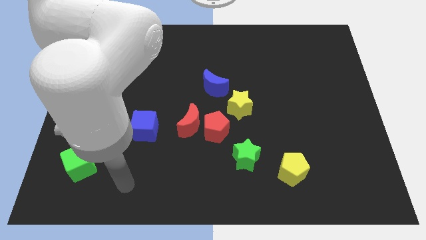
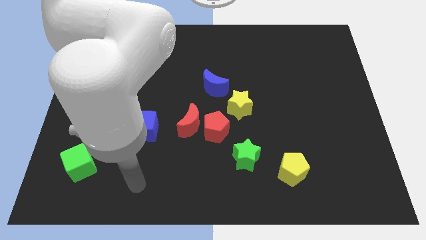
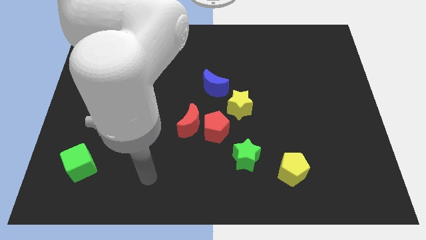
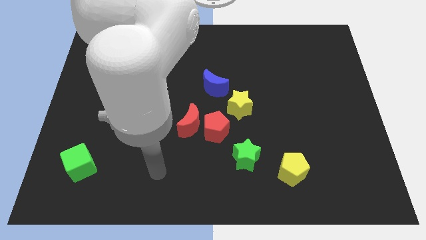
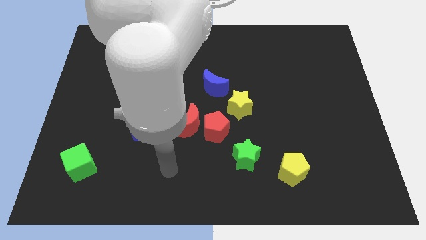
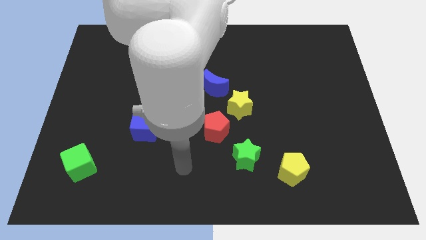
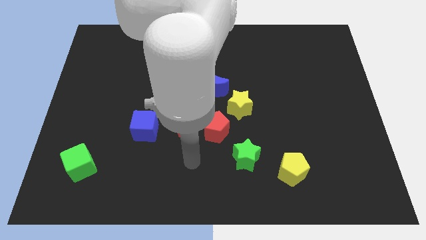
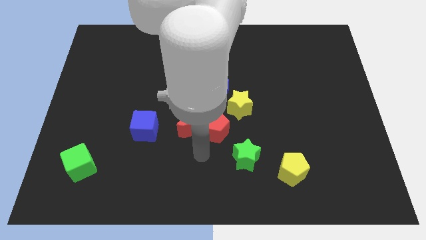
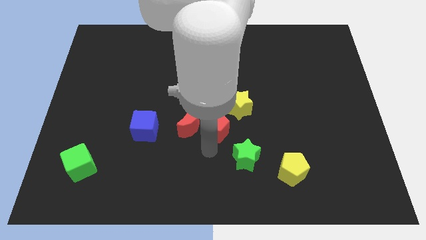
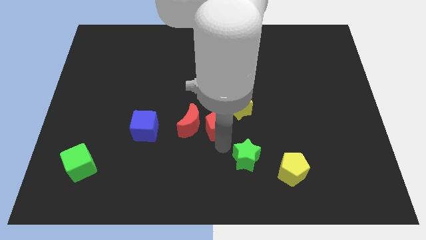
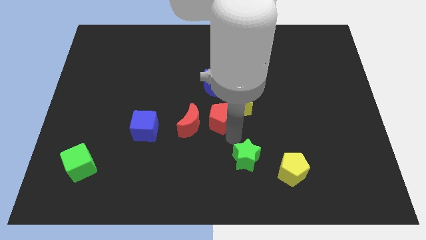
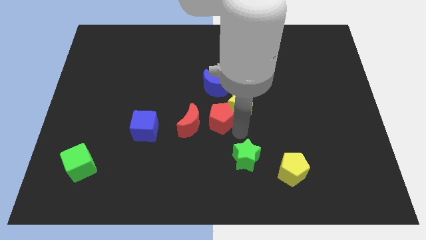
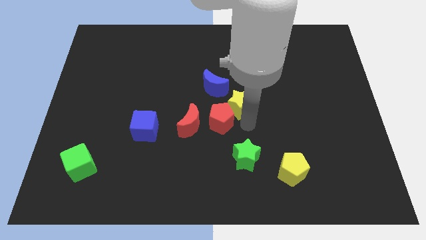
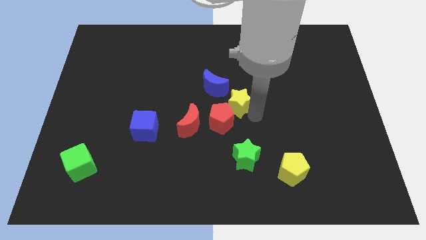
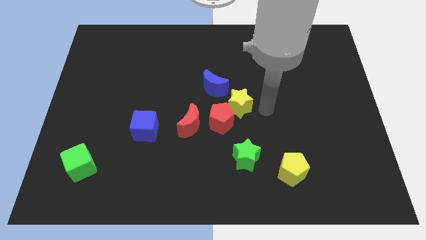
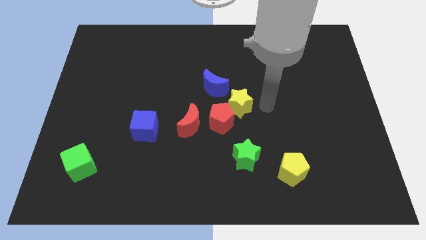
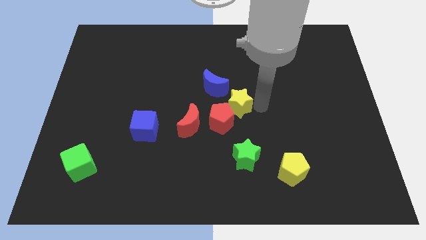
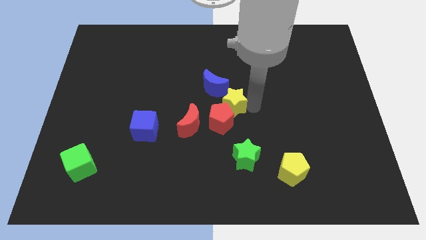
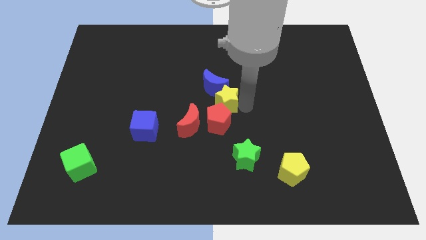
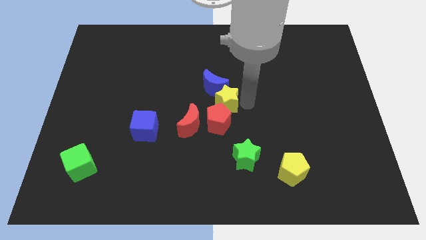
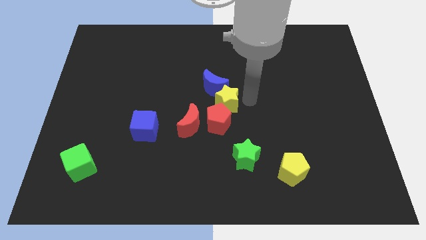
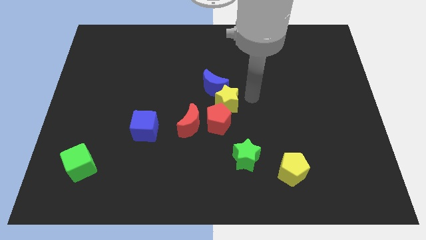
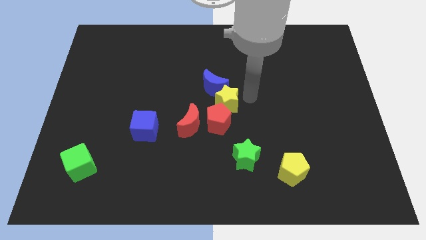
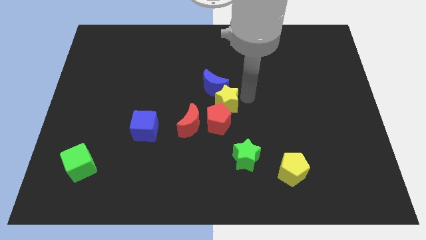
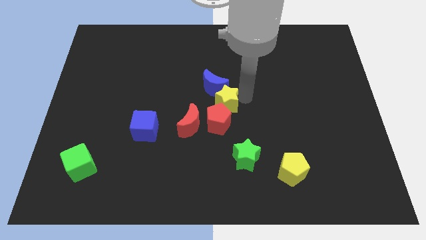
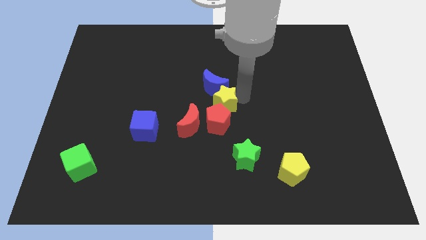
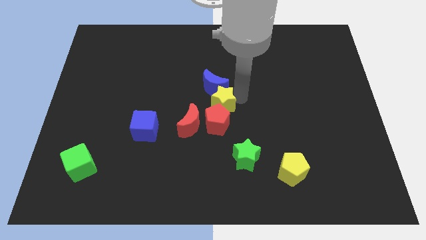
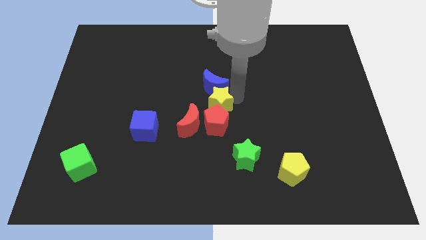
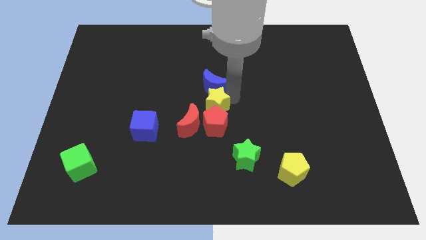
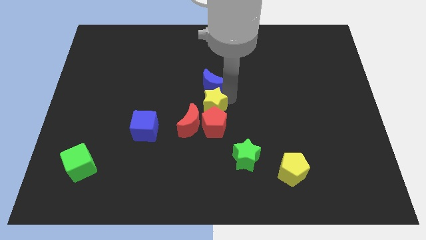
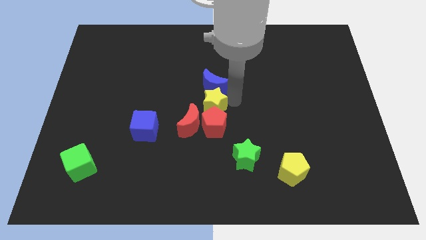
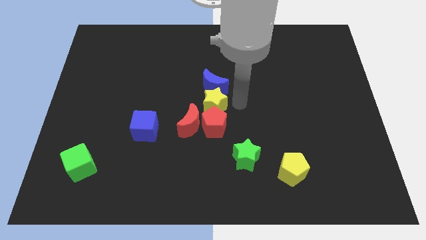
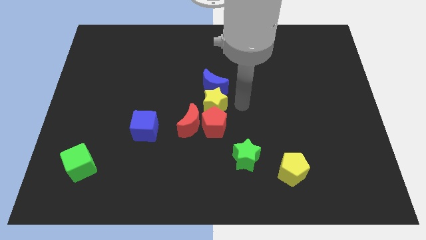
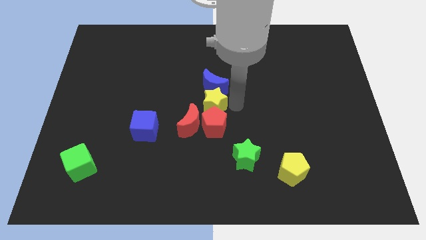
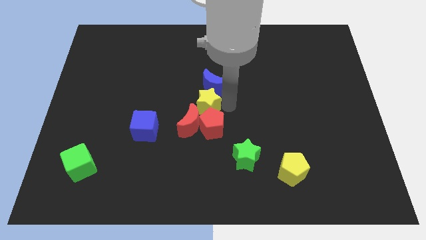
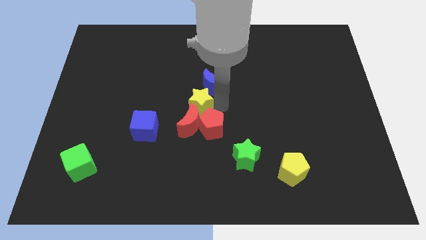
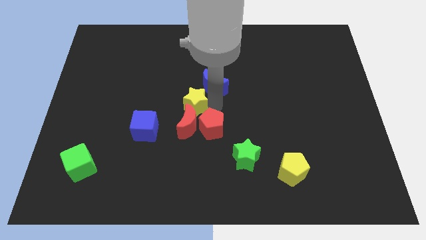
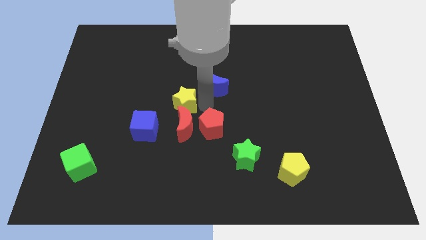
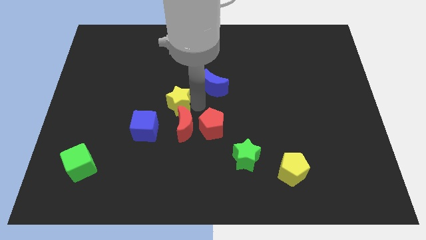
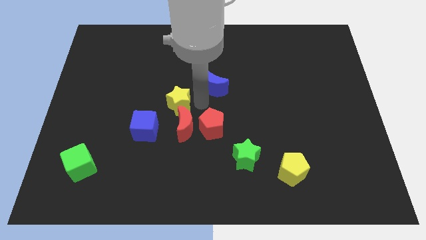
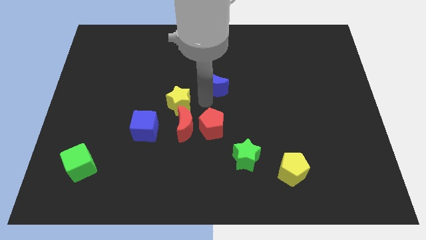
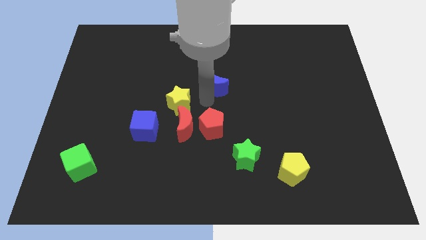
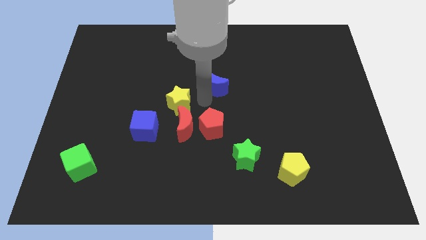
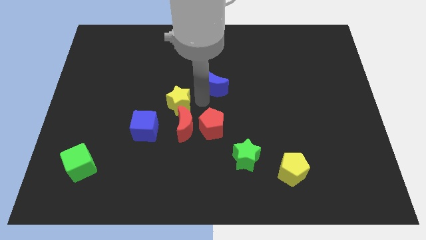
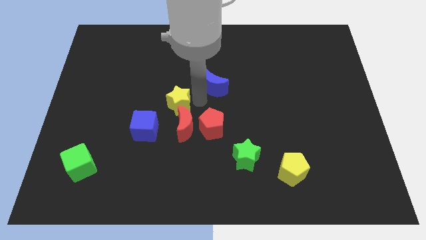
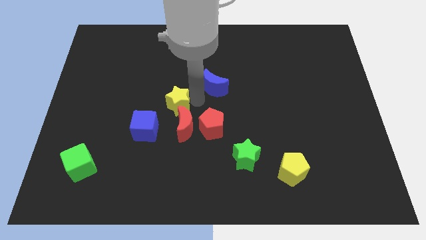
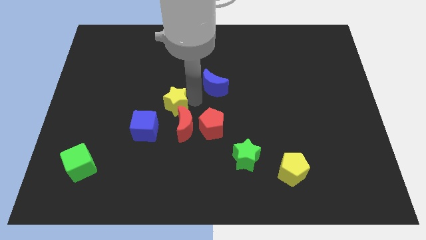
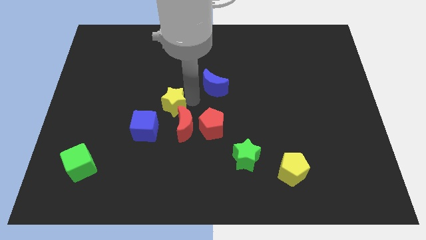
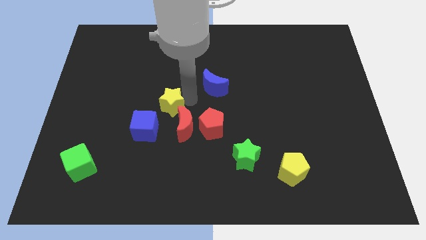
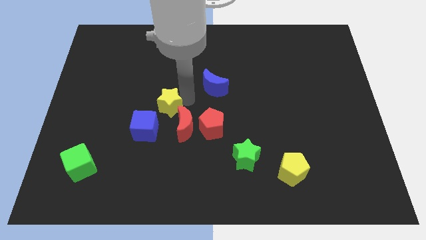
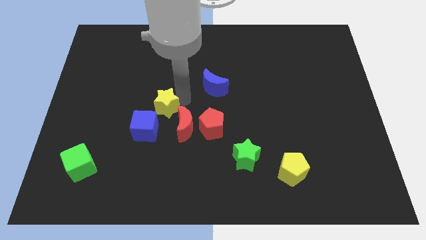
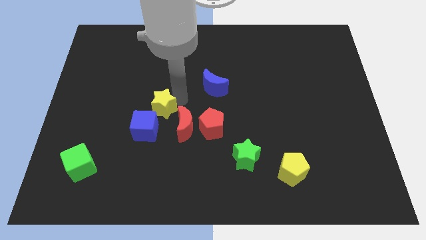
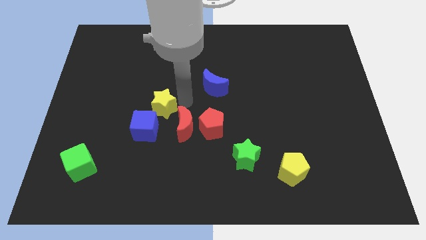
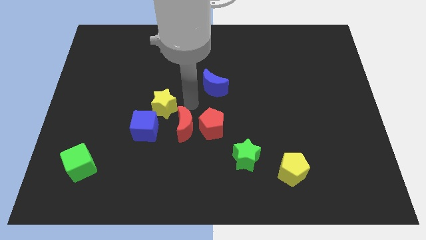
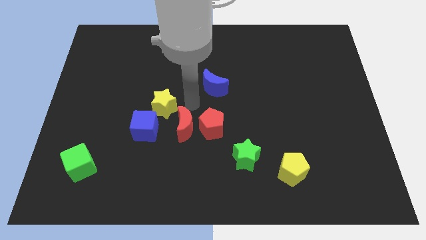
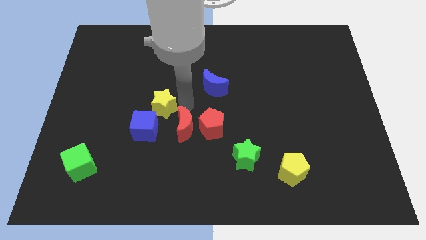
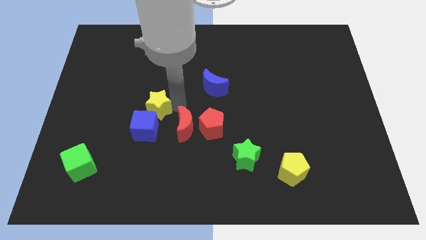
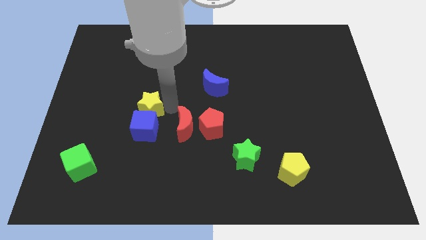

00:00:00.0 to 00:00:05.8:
push the yellow star left

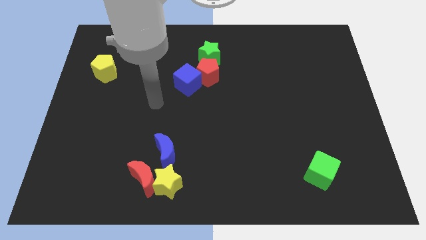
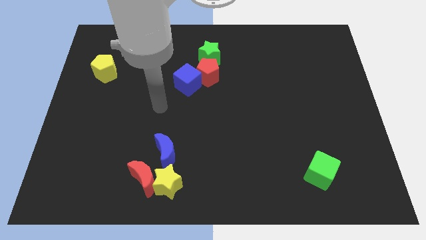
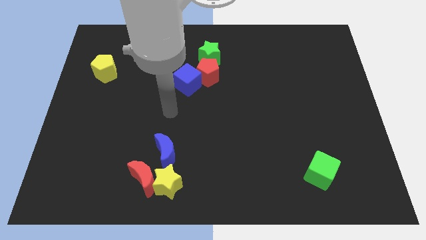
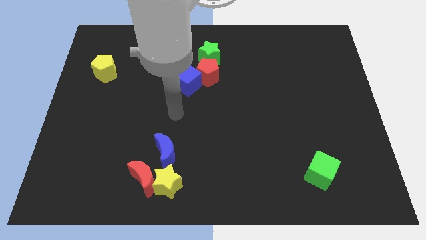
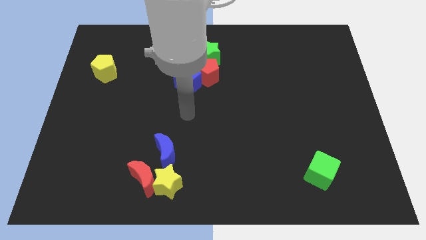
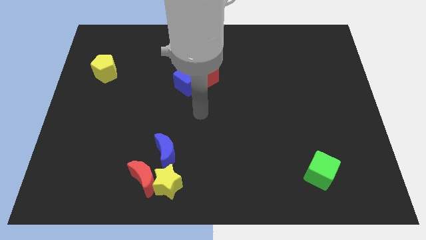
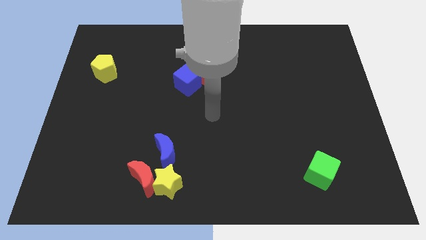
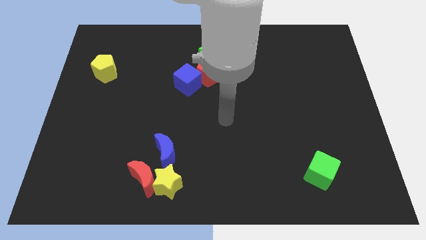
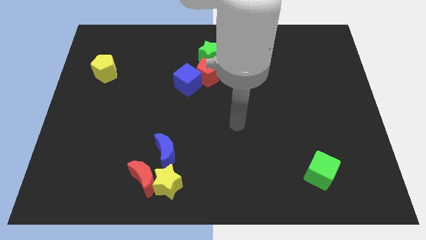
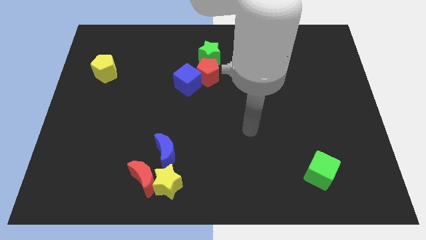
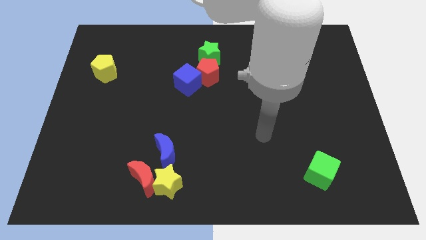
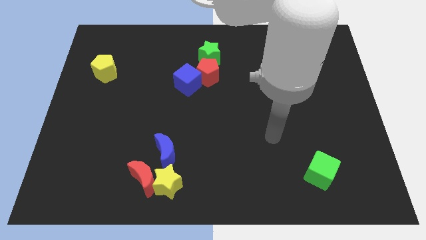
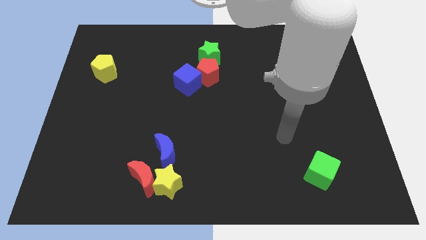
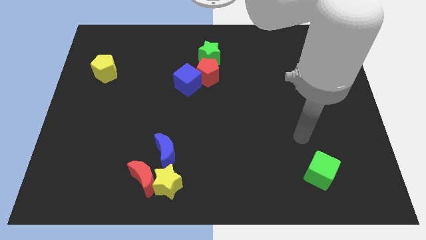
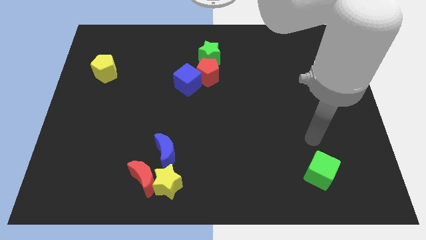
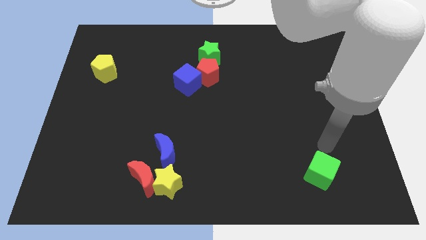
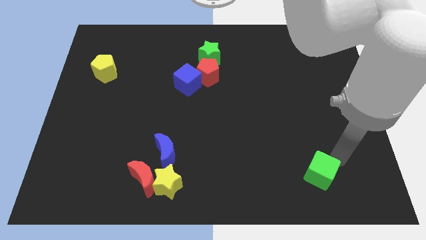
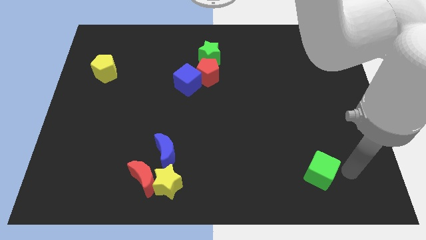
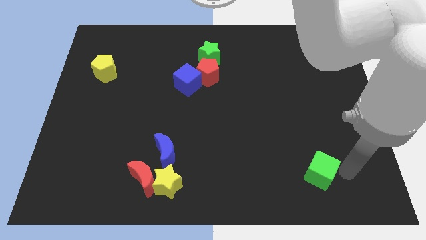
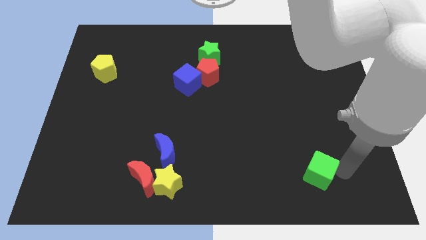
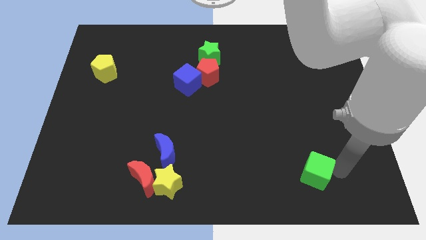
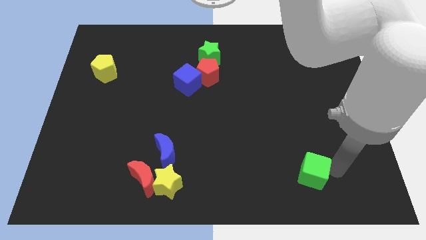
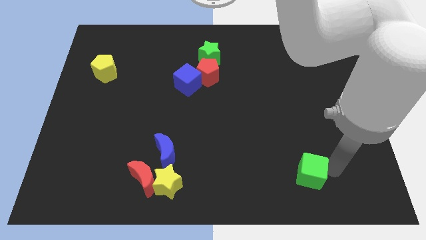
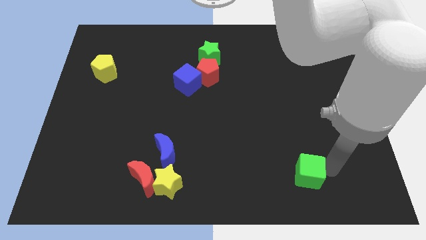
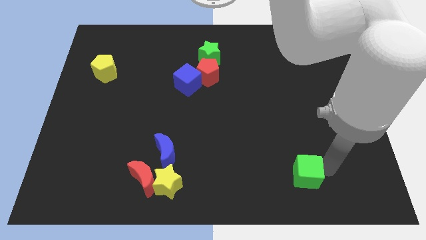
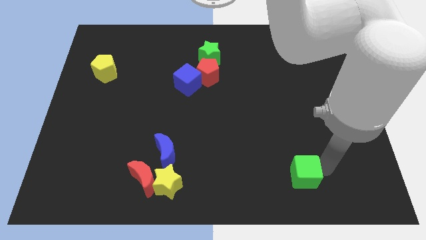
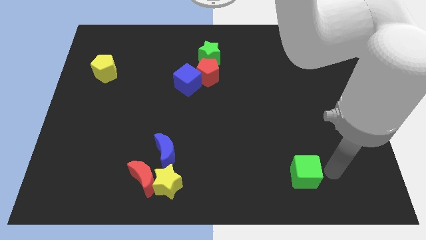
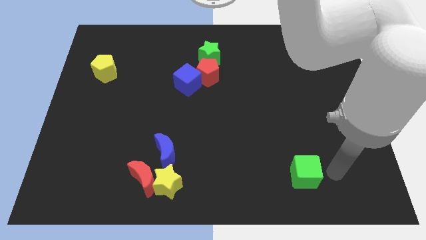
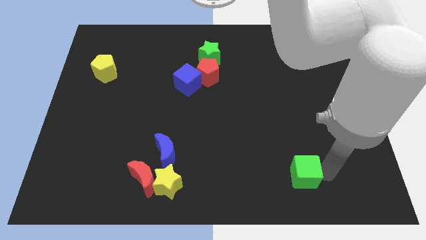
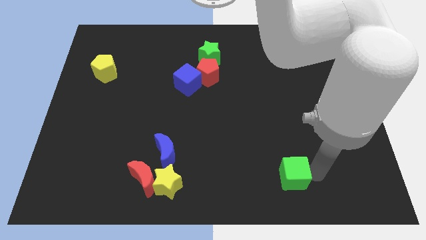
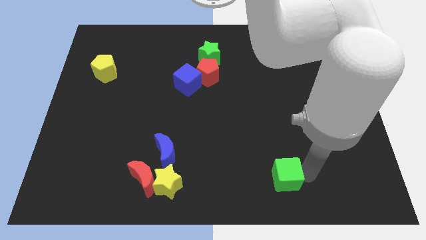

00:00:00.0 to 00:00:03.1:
slightly slide the green cube left
